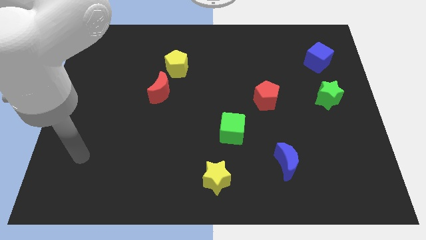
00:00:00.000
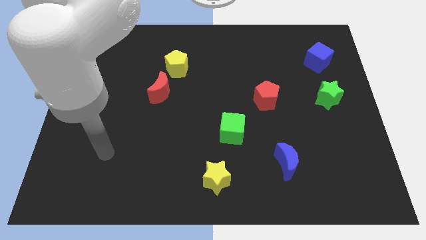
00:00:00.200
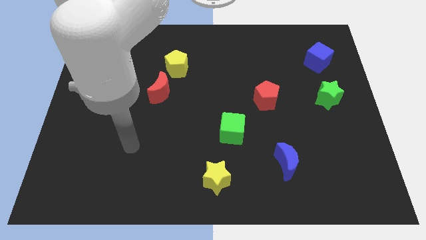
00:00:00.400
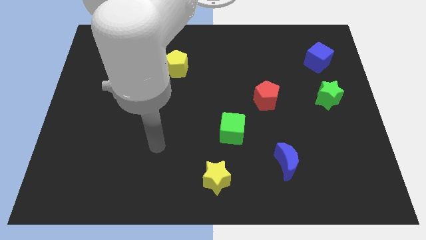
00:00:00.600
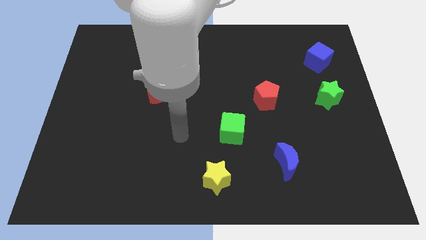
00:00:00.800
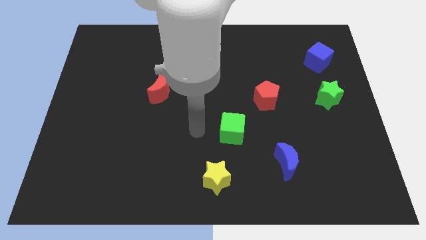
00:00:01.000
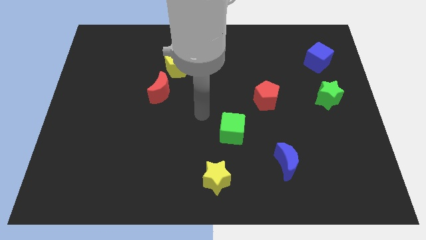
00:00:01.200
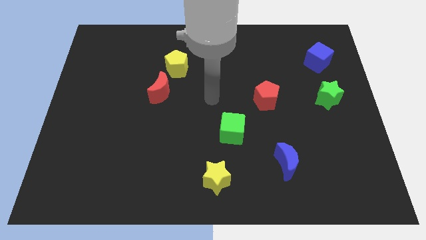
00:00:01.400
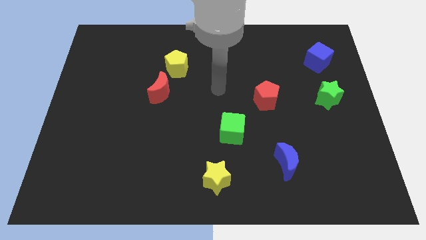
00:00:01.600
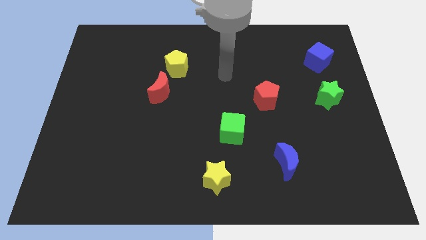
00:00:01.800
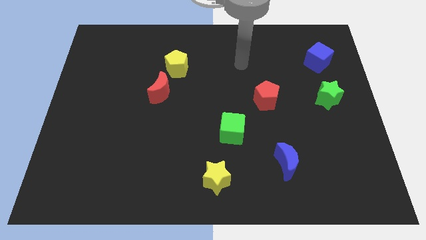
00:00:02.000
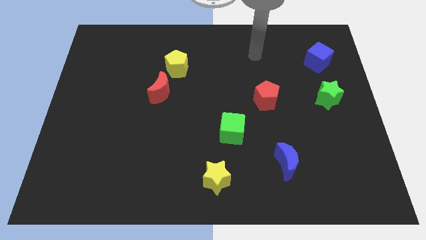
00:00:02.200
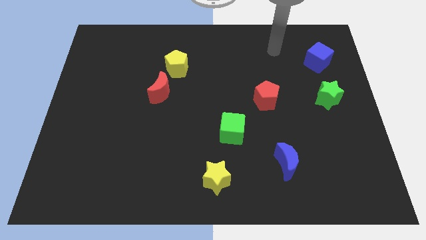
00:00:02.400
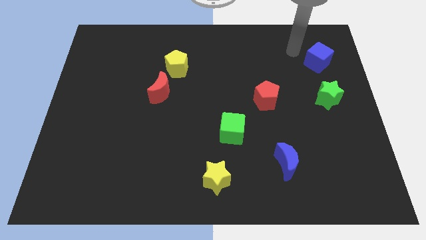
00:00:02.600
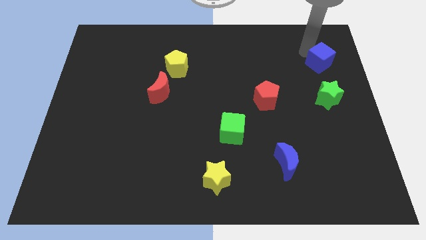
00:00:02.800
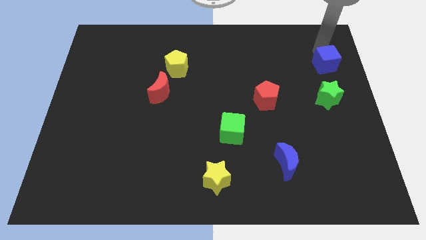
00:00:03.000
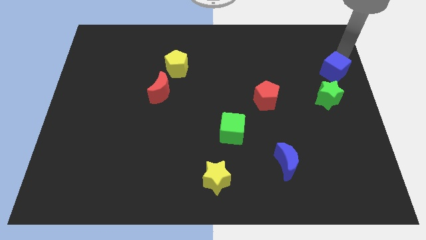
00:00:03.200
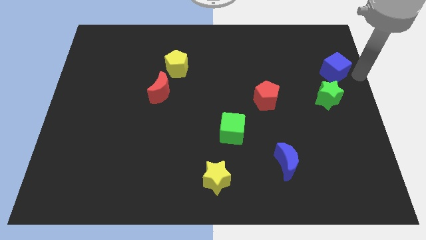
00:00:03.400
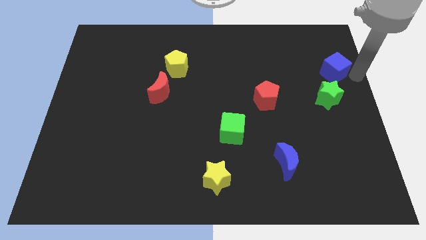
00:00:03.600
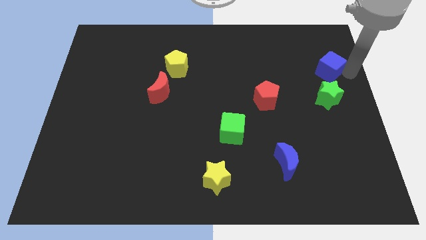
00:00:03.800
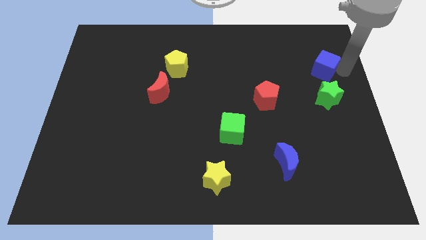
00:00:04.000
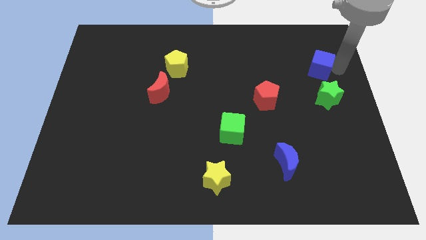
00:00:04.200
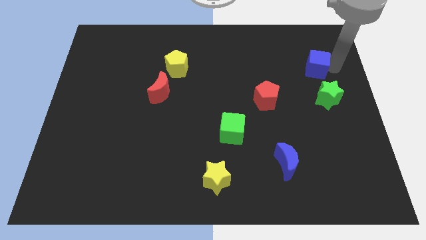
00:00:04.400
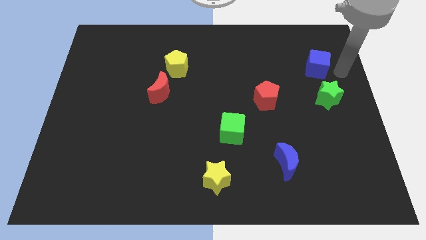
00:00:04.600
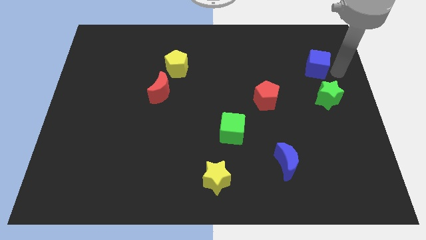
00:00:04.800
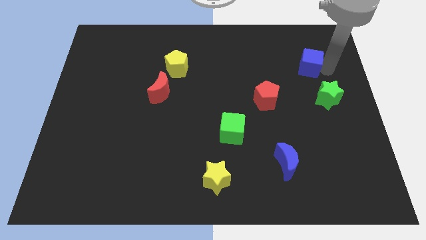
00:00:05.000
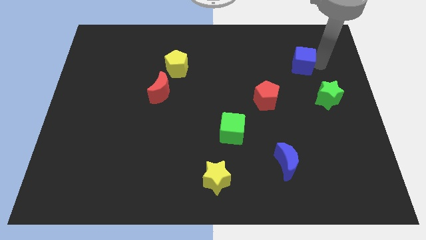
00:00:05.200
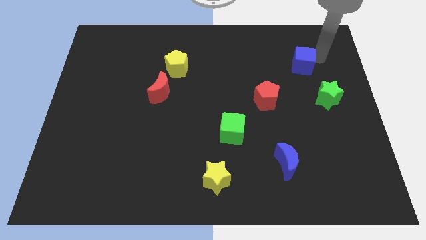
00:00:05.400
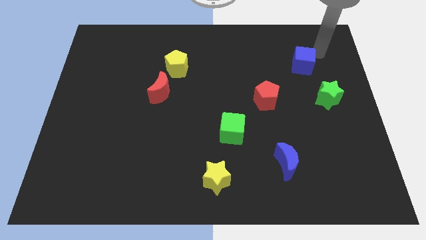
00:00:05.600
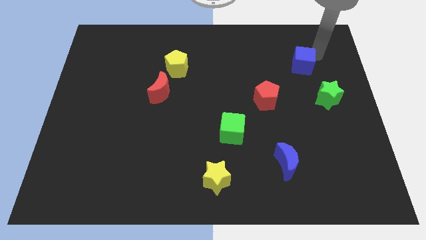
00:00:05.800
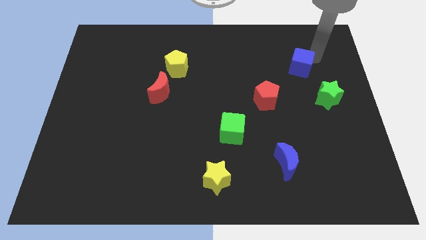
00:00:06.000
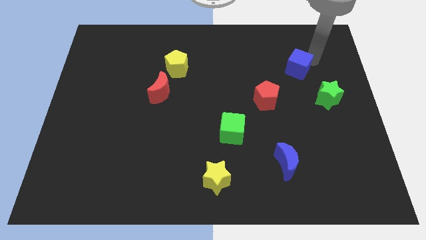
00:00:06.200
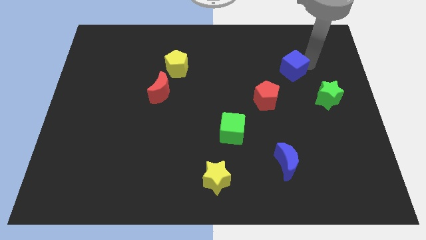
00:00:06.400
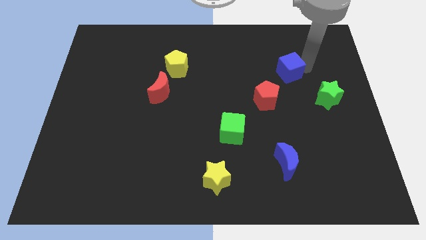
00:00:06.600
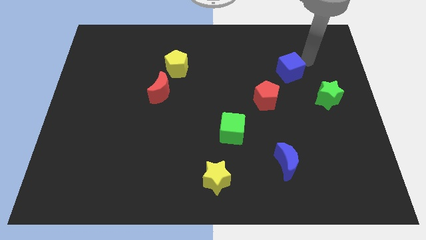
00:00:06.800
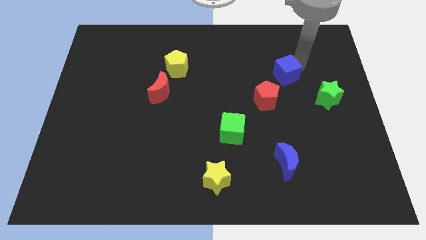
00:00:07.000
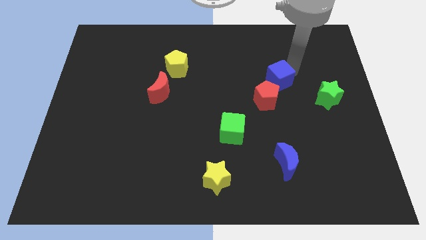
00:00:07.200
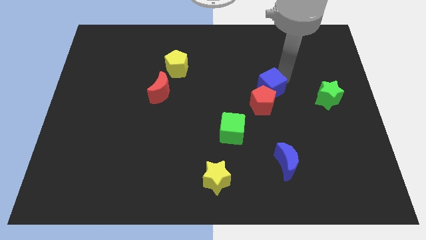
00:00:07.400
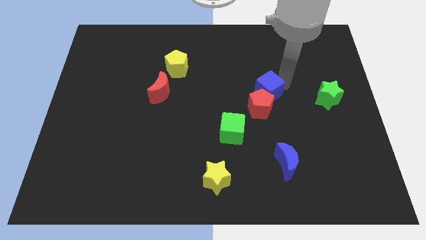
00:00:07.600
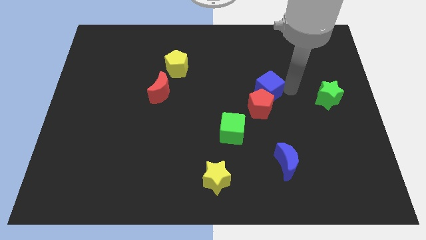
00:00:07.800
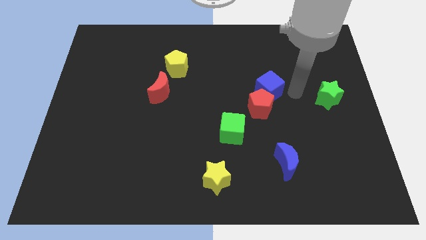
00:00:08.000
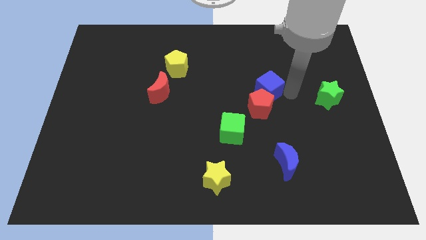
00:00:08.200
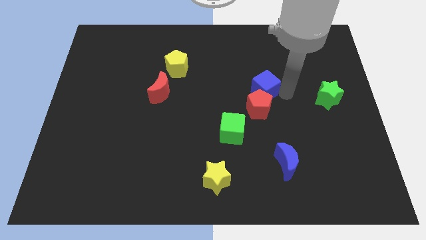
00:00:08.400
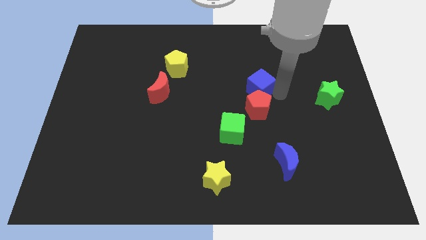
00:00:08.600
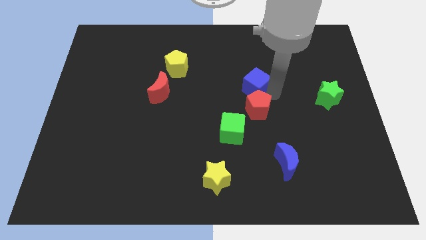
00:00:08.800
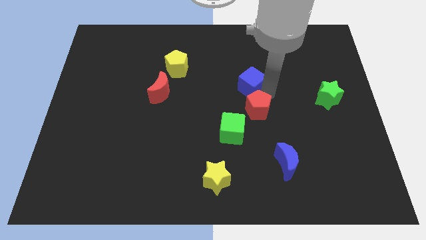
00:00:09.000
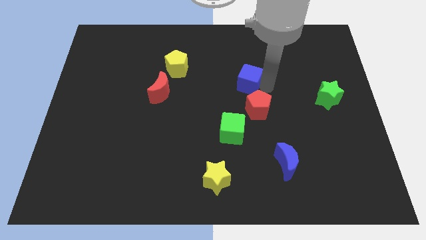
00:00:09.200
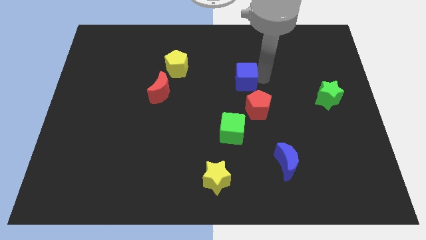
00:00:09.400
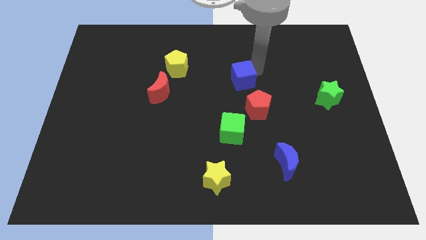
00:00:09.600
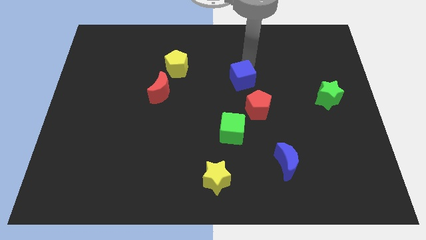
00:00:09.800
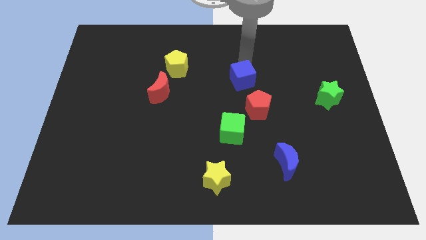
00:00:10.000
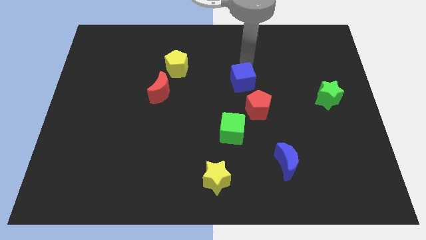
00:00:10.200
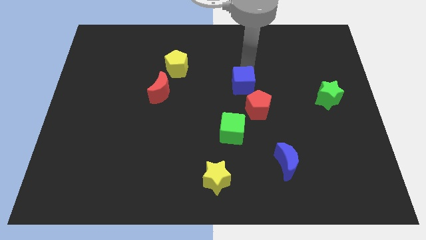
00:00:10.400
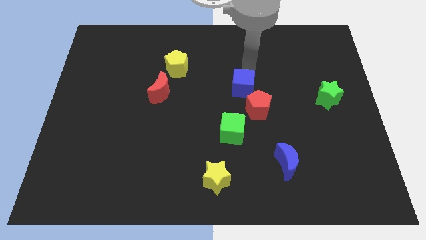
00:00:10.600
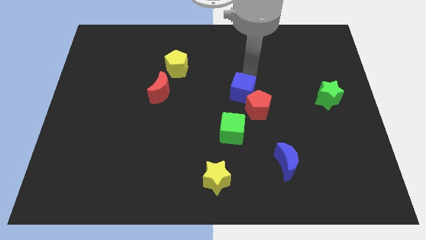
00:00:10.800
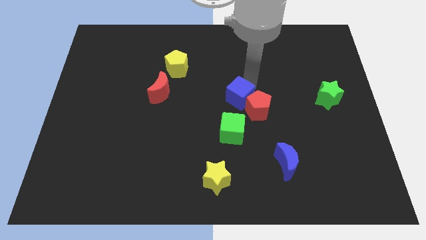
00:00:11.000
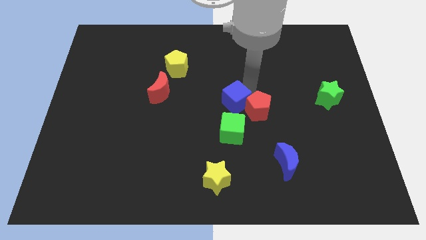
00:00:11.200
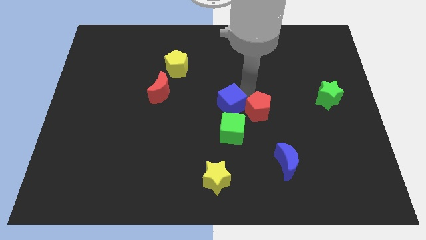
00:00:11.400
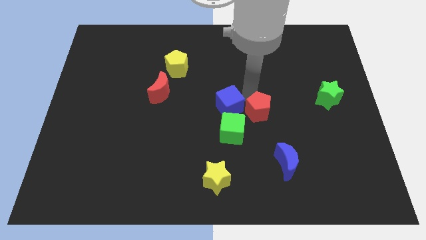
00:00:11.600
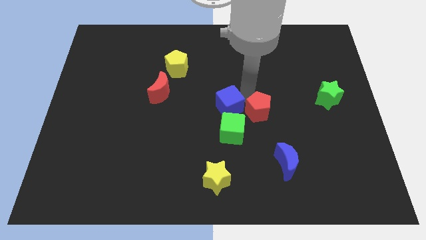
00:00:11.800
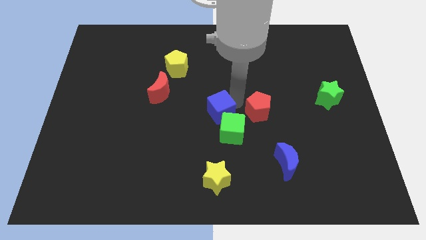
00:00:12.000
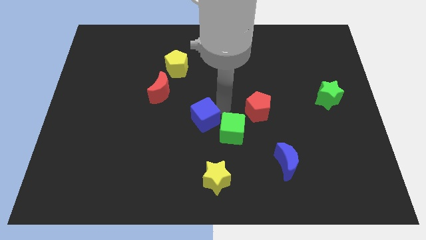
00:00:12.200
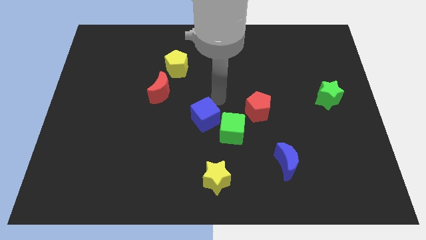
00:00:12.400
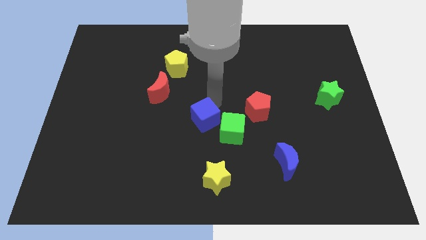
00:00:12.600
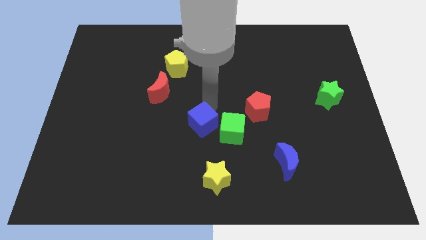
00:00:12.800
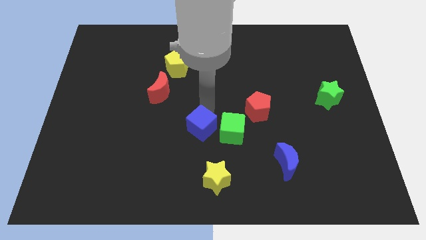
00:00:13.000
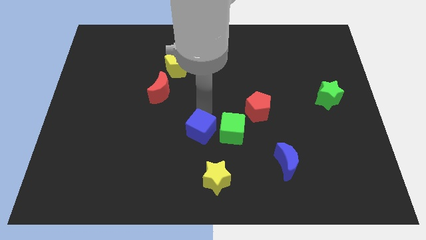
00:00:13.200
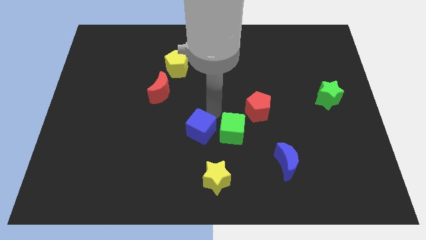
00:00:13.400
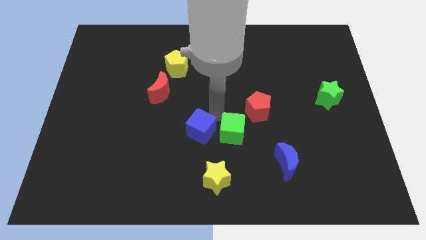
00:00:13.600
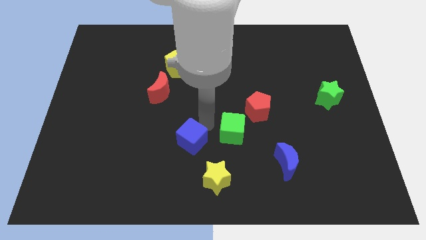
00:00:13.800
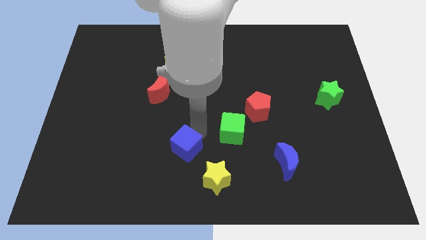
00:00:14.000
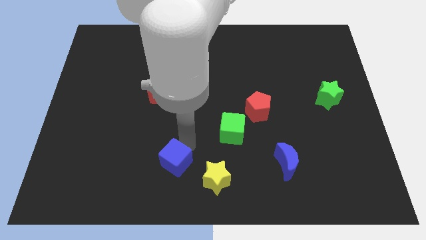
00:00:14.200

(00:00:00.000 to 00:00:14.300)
push the blue cube to the left side of the yellow star
